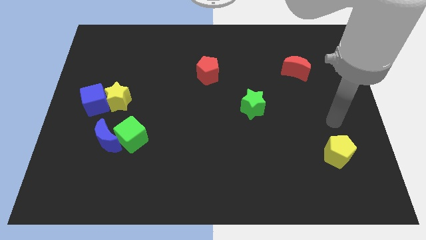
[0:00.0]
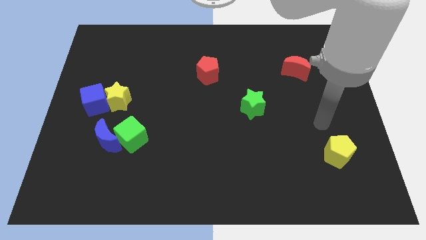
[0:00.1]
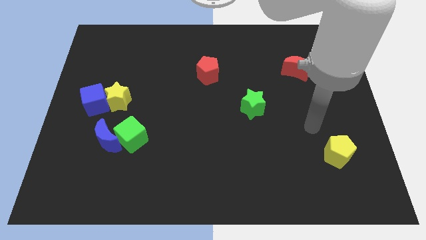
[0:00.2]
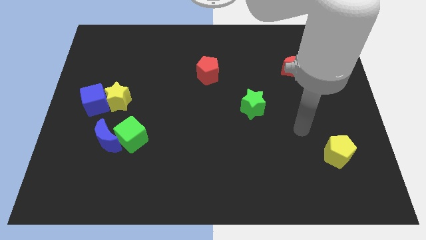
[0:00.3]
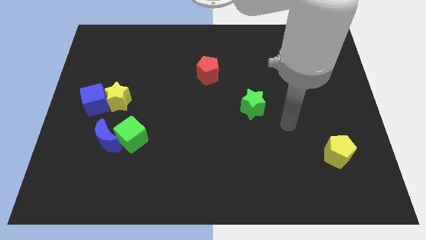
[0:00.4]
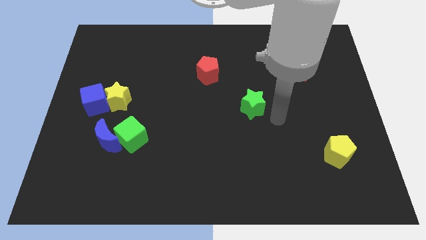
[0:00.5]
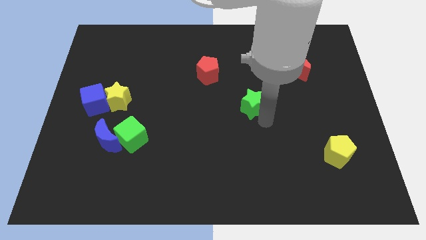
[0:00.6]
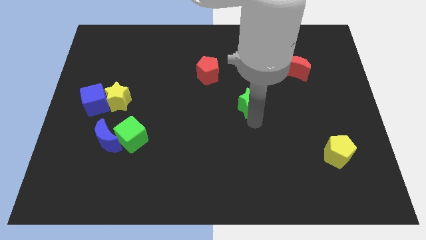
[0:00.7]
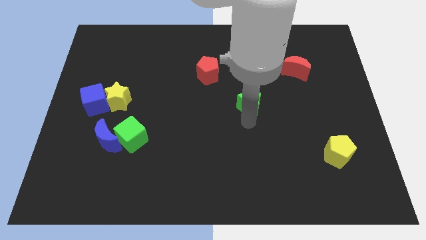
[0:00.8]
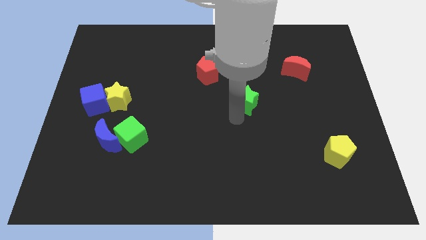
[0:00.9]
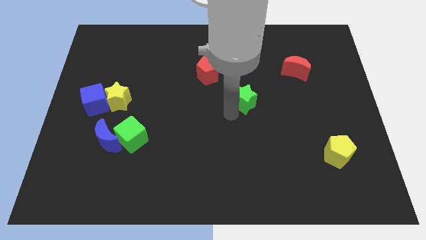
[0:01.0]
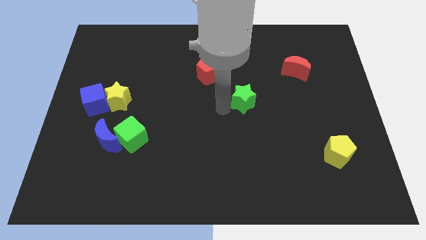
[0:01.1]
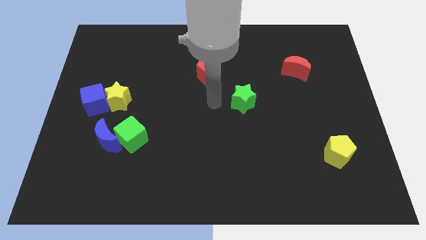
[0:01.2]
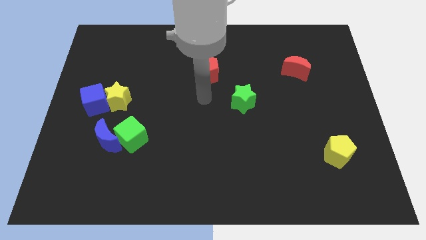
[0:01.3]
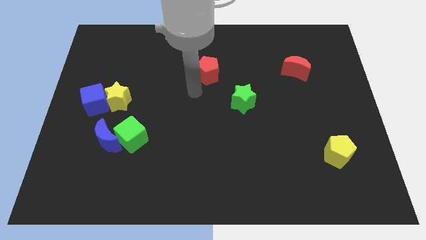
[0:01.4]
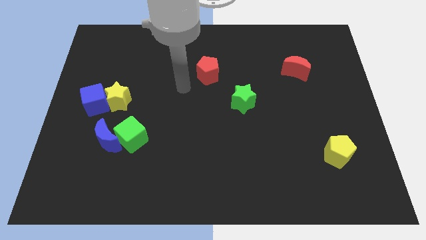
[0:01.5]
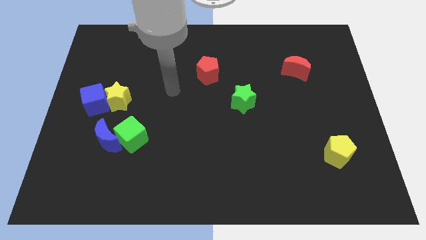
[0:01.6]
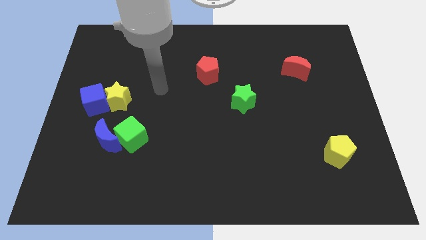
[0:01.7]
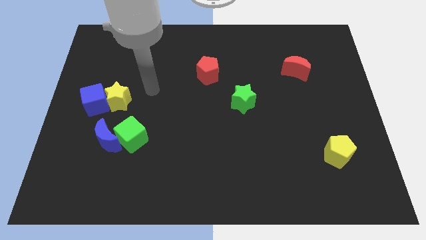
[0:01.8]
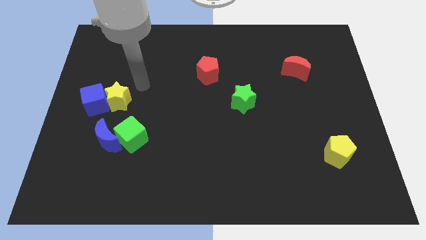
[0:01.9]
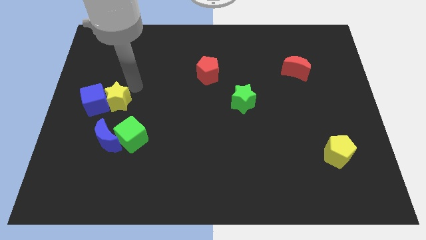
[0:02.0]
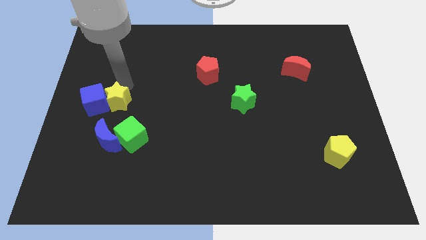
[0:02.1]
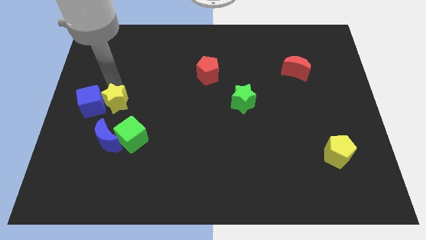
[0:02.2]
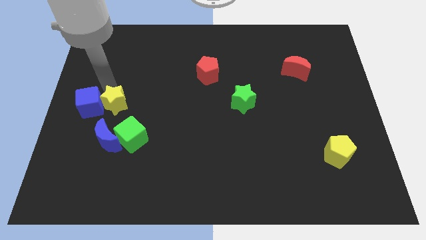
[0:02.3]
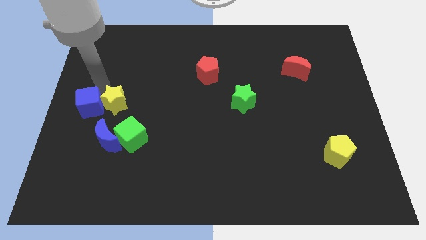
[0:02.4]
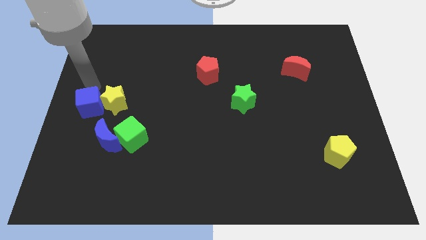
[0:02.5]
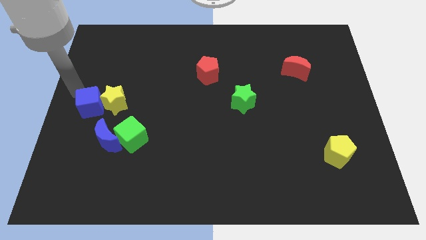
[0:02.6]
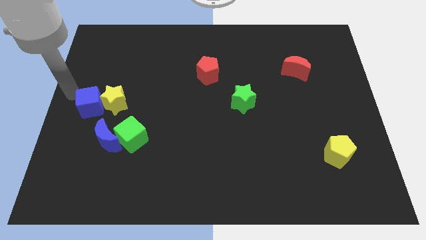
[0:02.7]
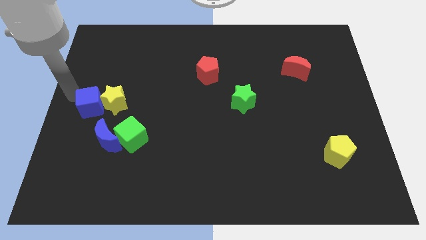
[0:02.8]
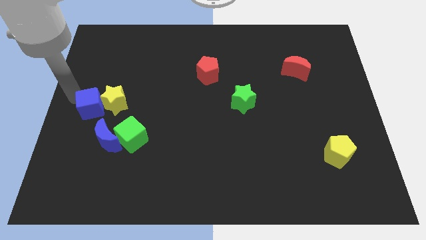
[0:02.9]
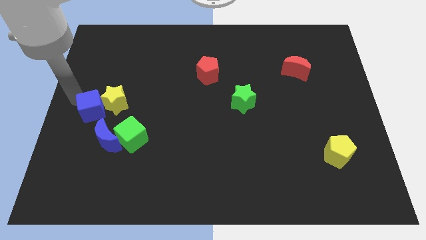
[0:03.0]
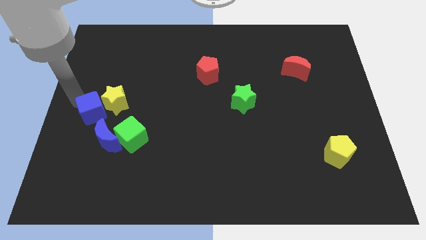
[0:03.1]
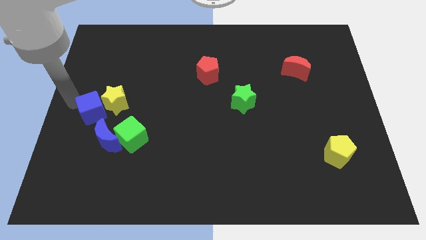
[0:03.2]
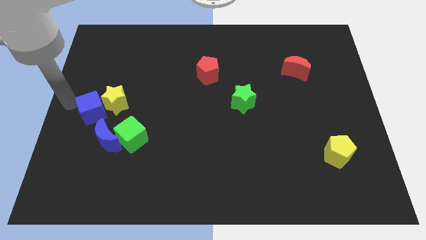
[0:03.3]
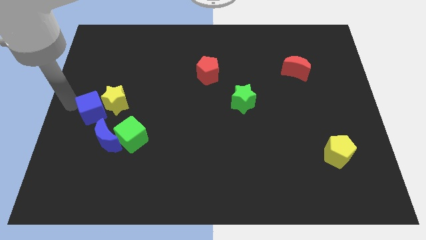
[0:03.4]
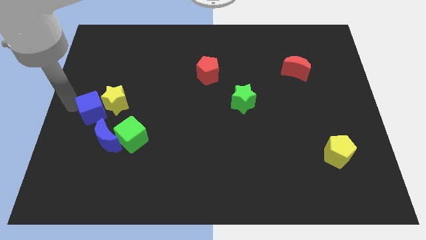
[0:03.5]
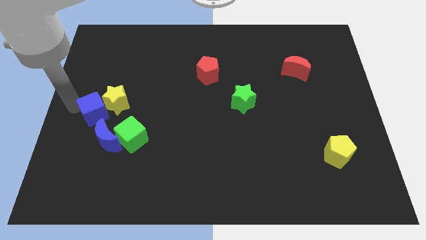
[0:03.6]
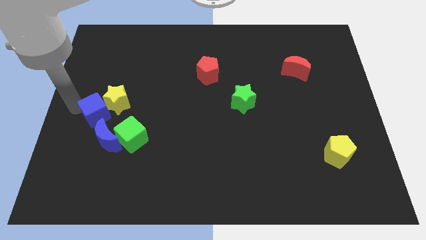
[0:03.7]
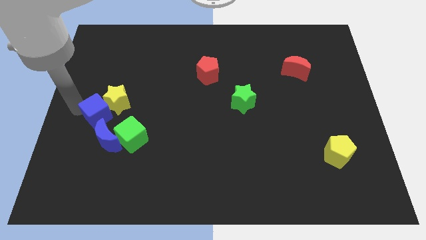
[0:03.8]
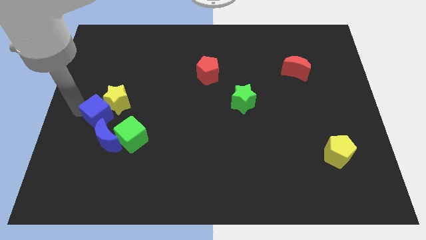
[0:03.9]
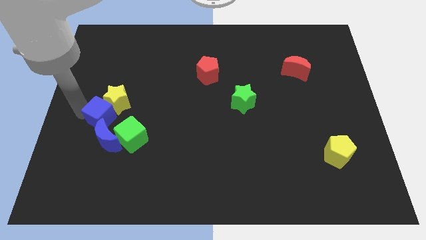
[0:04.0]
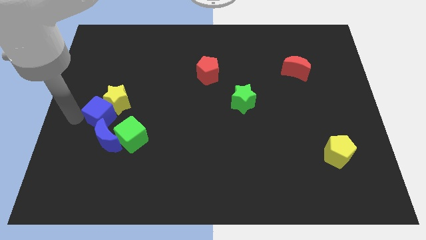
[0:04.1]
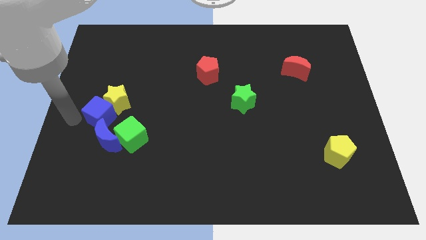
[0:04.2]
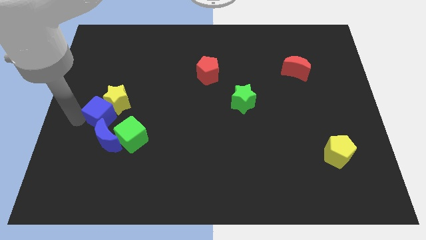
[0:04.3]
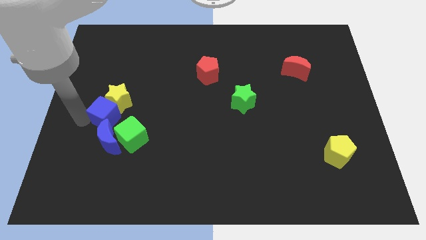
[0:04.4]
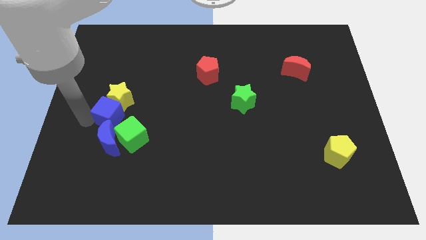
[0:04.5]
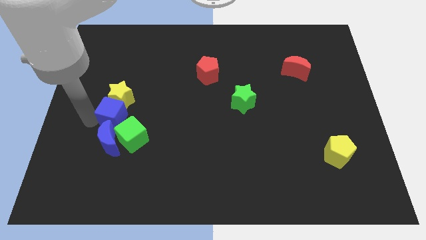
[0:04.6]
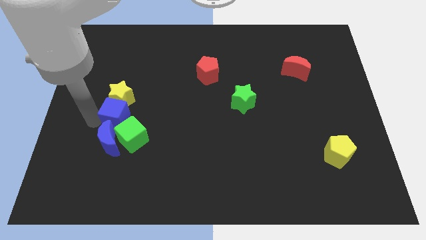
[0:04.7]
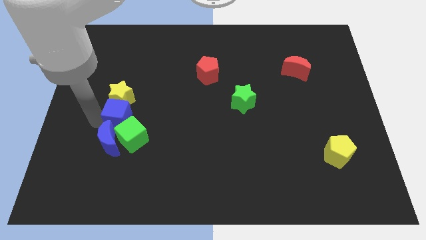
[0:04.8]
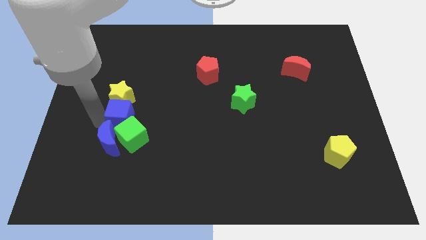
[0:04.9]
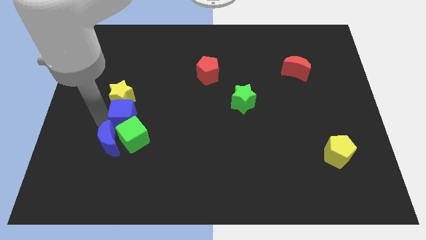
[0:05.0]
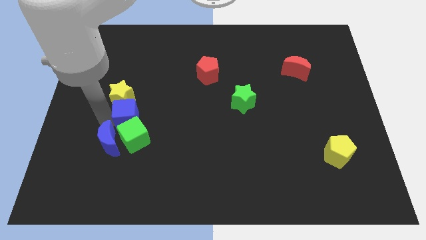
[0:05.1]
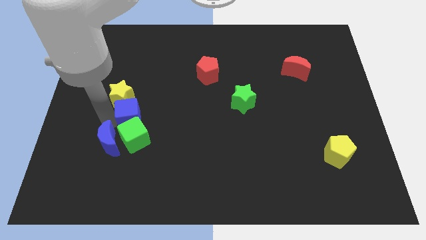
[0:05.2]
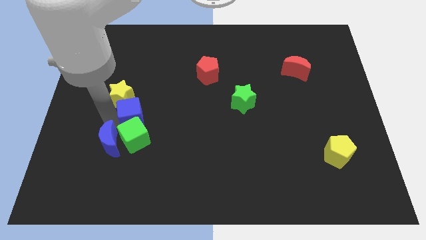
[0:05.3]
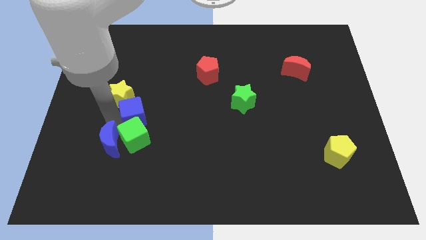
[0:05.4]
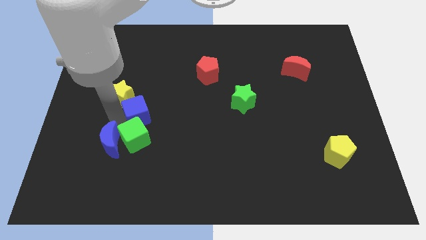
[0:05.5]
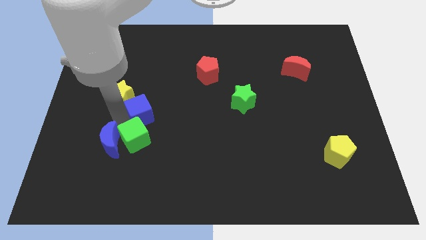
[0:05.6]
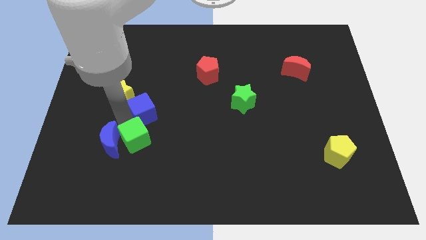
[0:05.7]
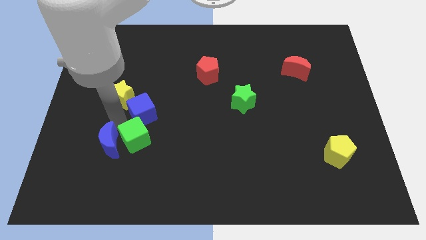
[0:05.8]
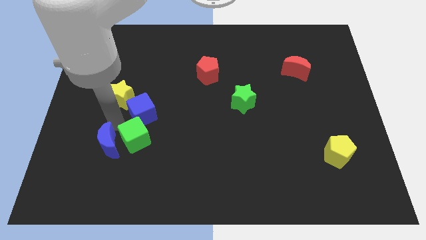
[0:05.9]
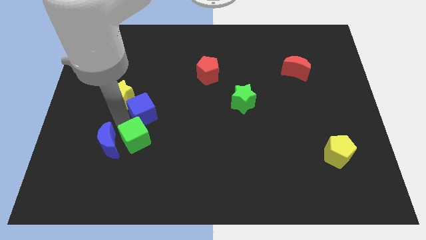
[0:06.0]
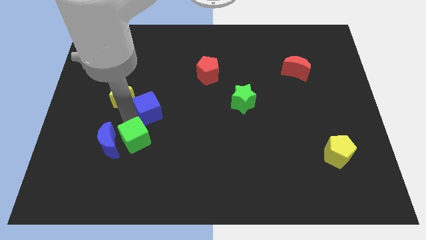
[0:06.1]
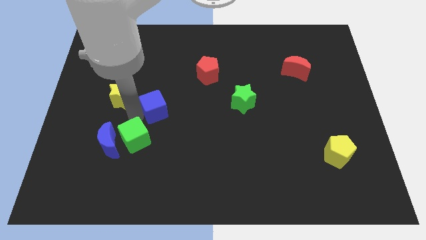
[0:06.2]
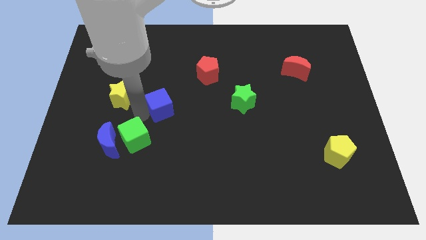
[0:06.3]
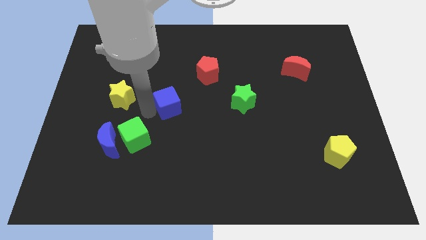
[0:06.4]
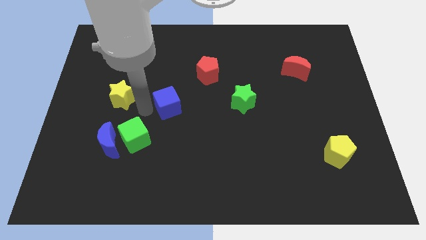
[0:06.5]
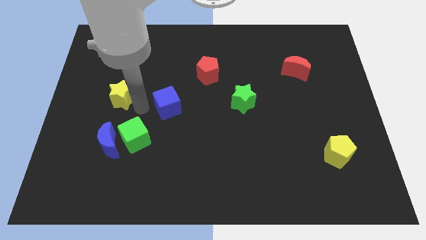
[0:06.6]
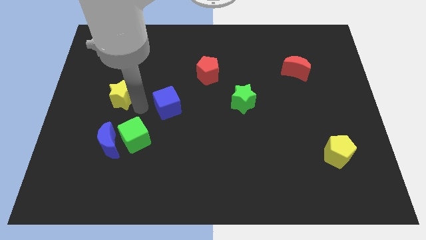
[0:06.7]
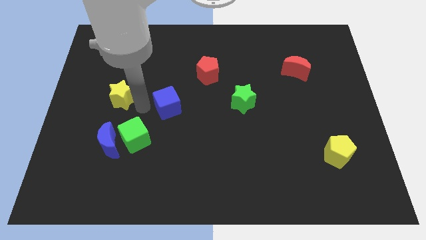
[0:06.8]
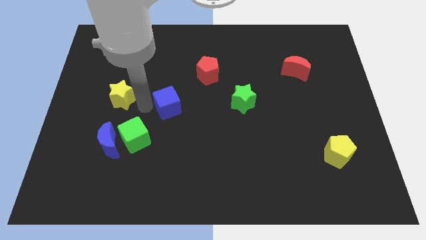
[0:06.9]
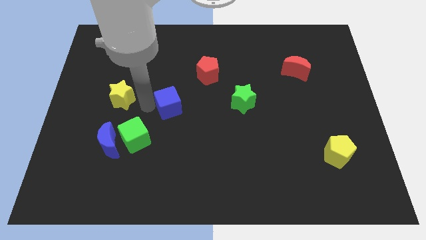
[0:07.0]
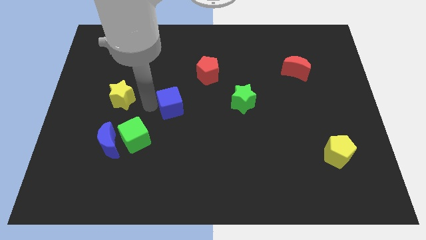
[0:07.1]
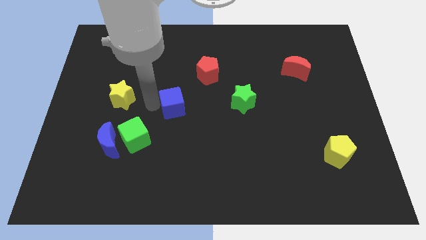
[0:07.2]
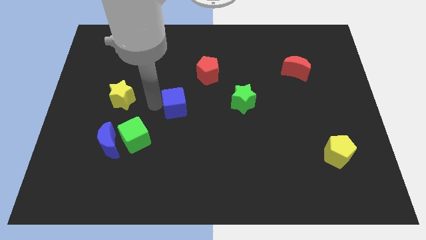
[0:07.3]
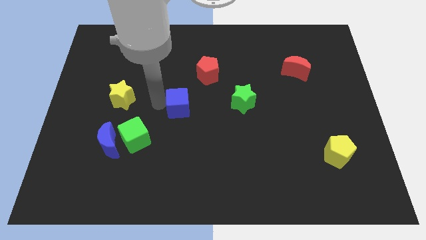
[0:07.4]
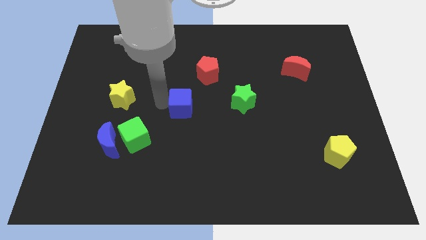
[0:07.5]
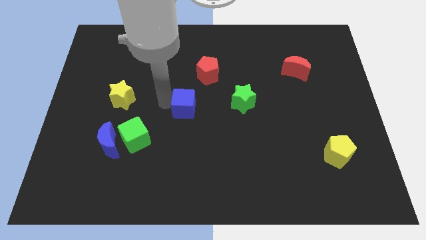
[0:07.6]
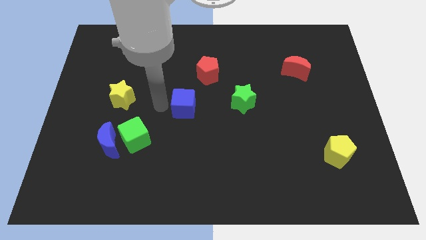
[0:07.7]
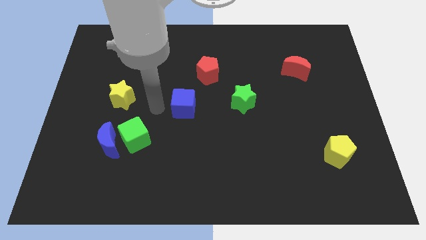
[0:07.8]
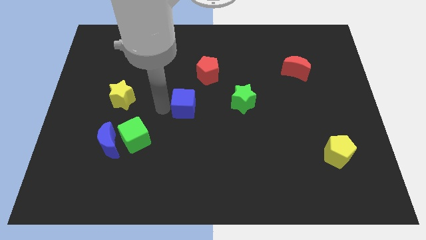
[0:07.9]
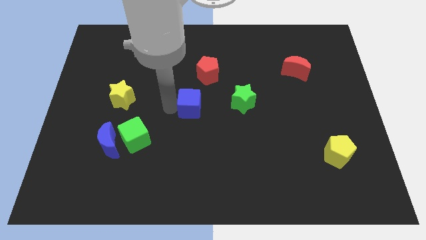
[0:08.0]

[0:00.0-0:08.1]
slide the blue cube below the red pentagon
